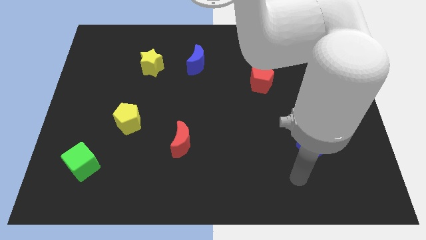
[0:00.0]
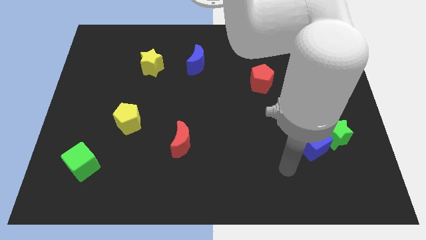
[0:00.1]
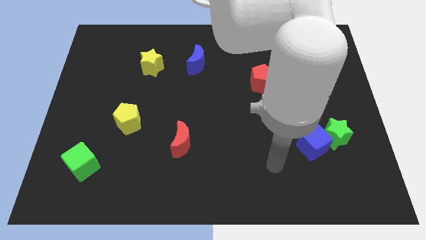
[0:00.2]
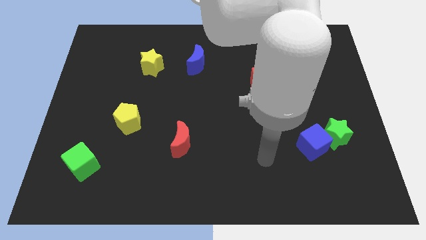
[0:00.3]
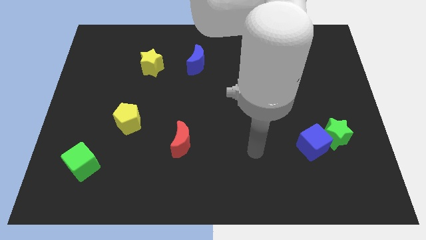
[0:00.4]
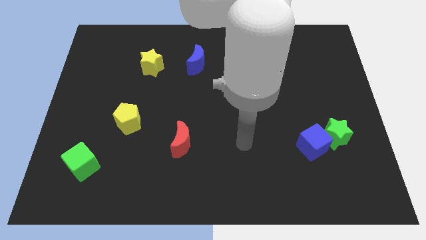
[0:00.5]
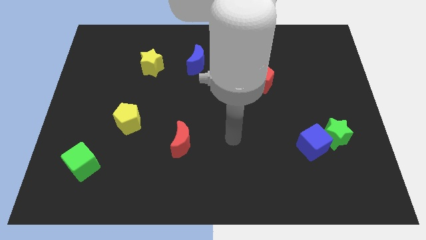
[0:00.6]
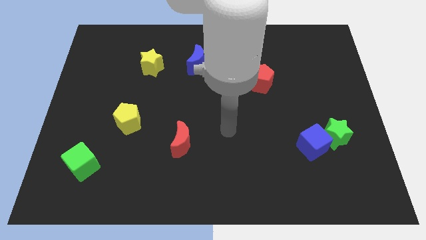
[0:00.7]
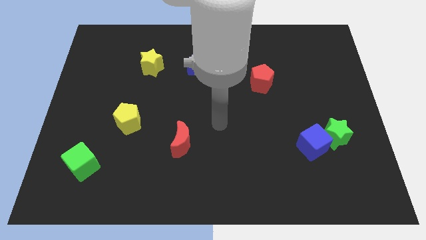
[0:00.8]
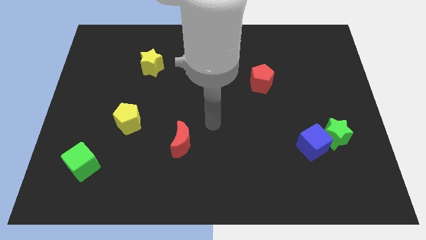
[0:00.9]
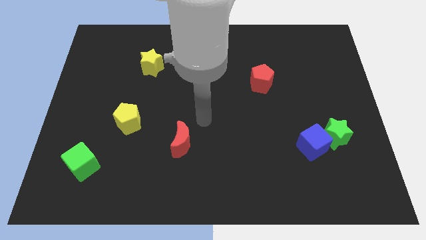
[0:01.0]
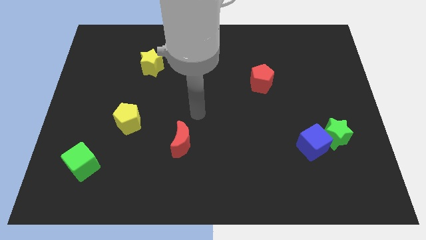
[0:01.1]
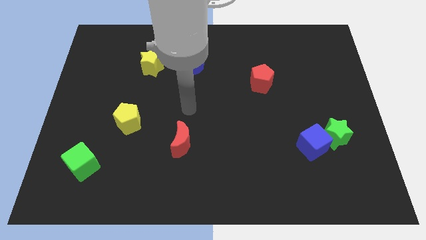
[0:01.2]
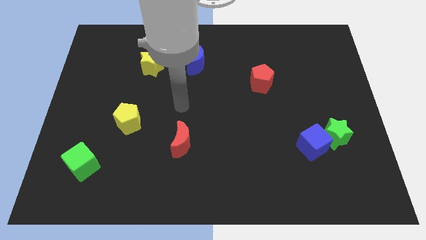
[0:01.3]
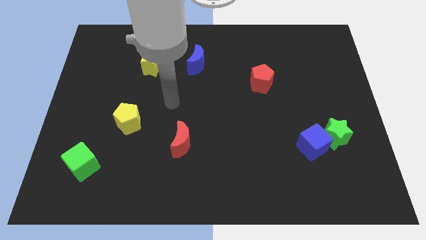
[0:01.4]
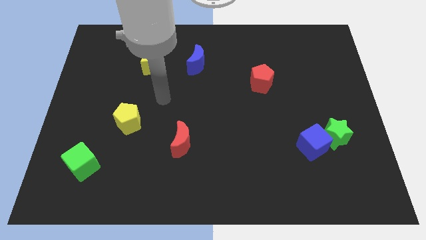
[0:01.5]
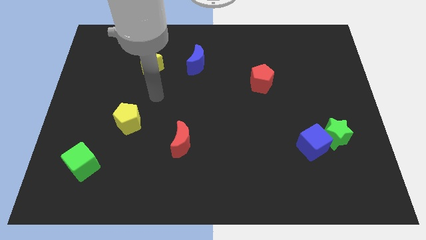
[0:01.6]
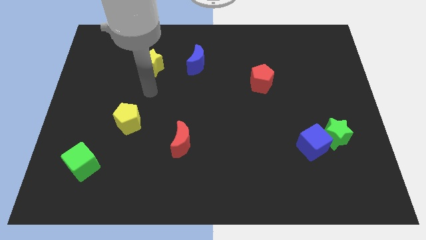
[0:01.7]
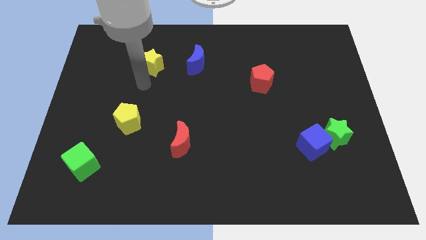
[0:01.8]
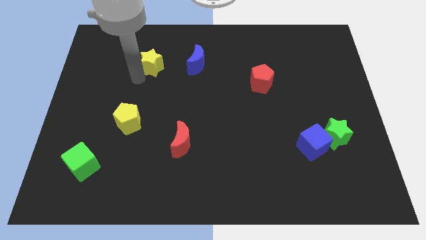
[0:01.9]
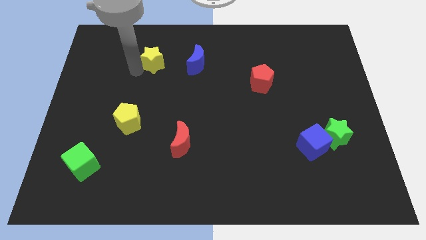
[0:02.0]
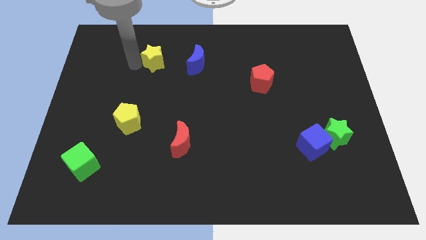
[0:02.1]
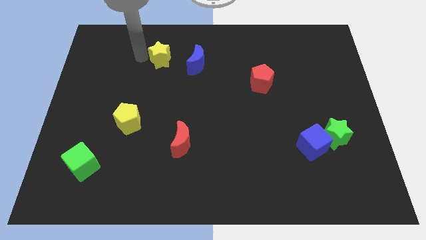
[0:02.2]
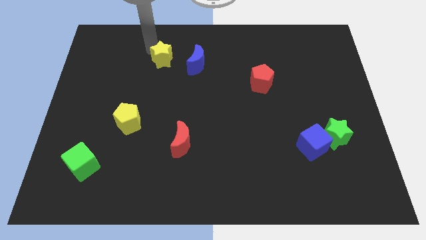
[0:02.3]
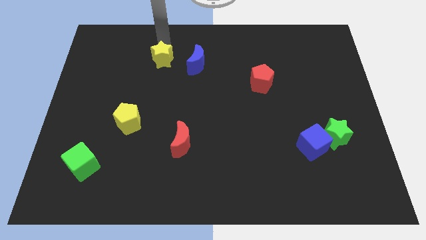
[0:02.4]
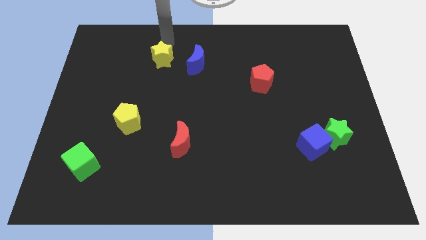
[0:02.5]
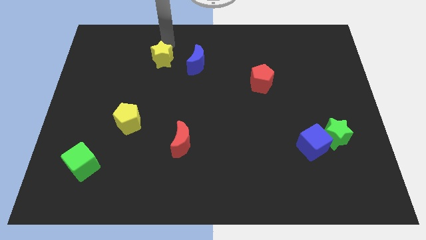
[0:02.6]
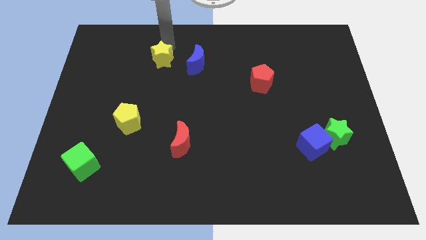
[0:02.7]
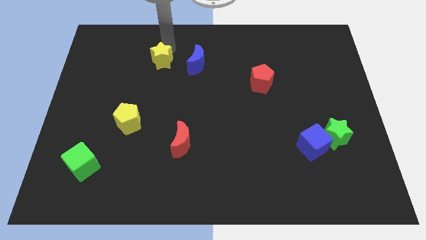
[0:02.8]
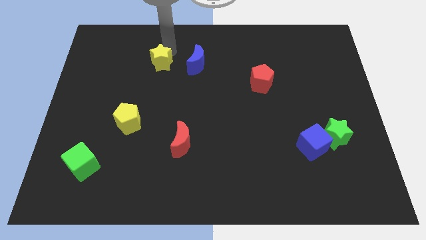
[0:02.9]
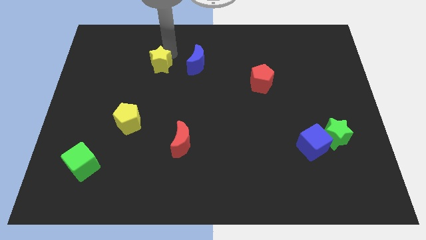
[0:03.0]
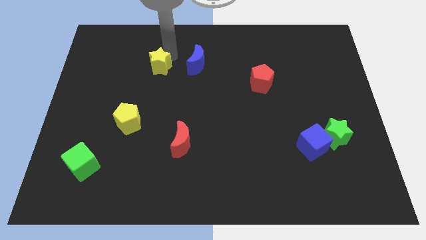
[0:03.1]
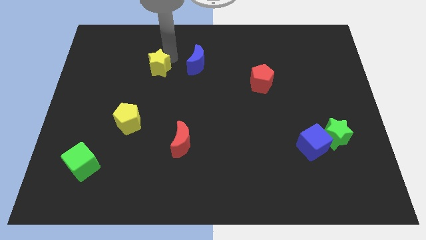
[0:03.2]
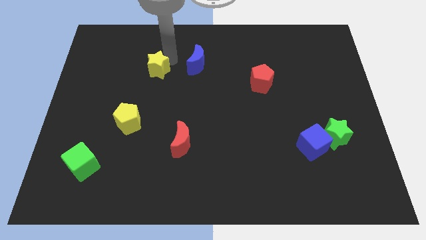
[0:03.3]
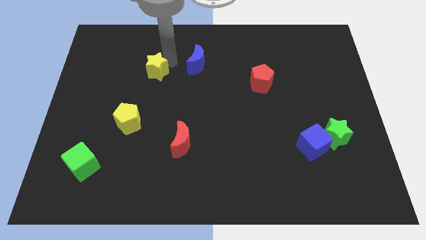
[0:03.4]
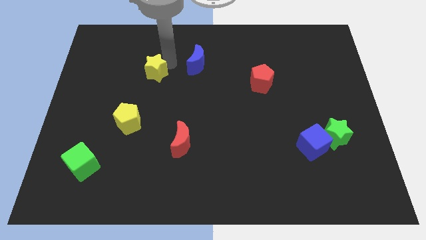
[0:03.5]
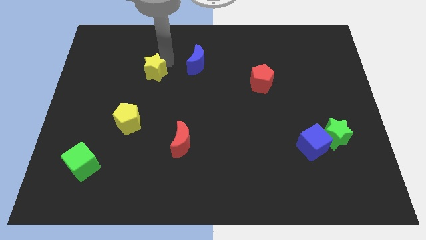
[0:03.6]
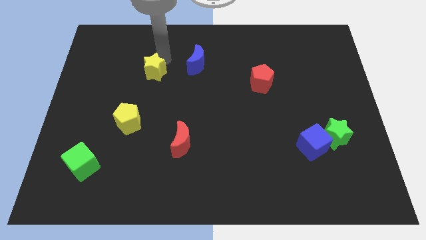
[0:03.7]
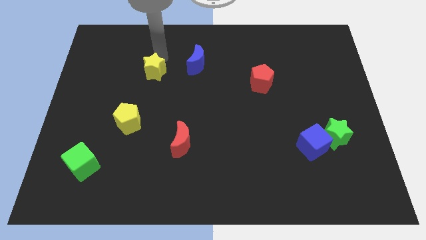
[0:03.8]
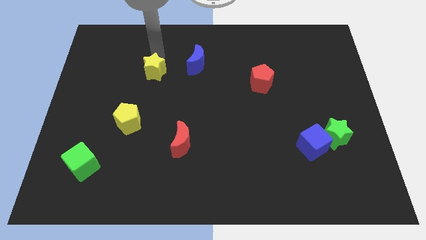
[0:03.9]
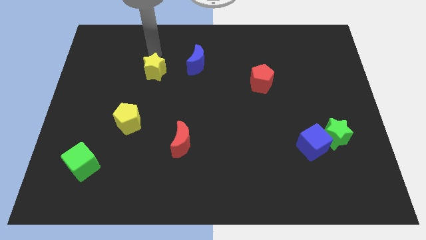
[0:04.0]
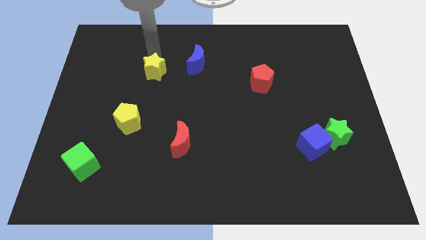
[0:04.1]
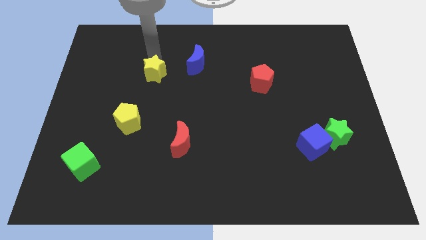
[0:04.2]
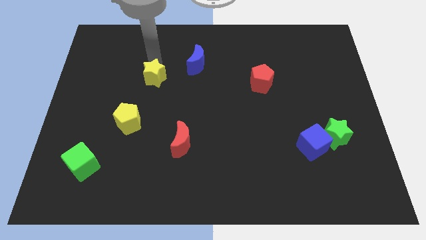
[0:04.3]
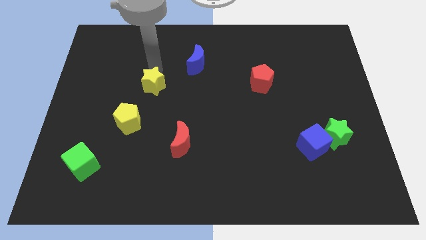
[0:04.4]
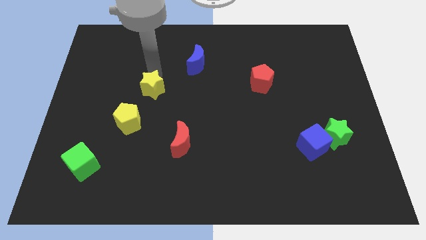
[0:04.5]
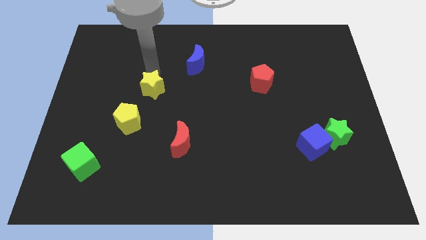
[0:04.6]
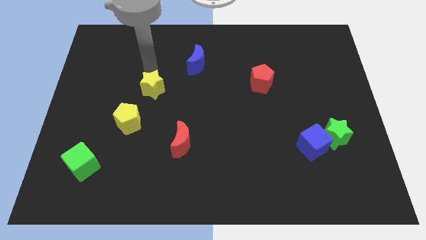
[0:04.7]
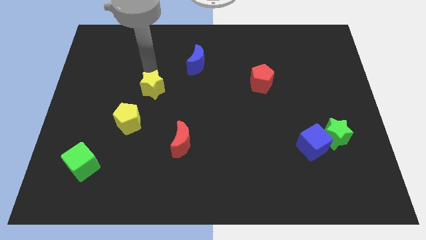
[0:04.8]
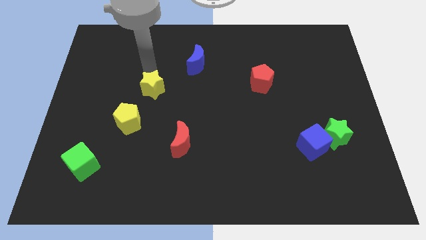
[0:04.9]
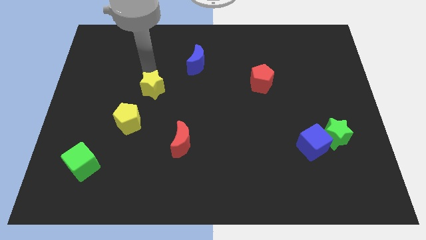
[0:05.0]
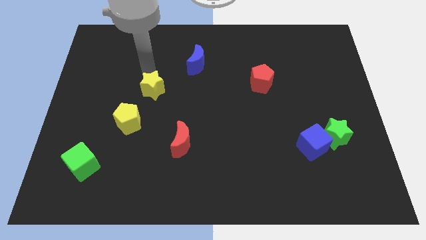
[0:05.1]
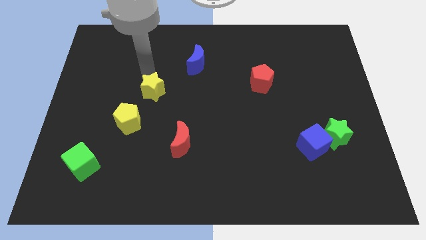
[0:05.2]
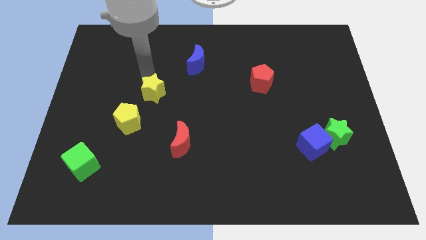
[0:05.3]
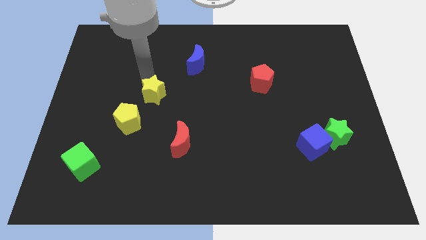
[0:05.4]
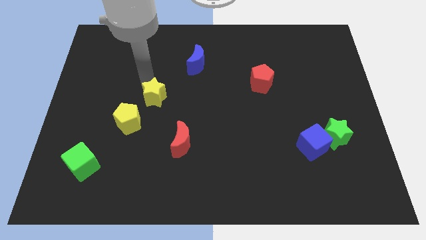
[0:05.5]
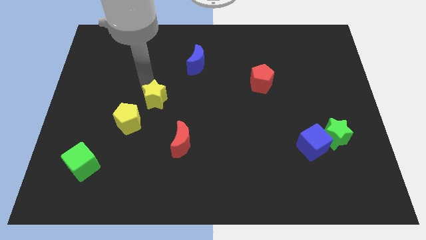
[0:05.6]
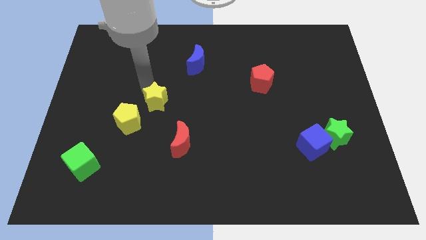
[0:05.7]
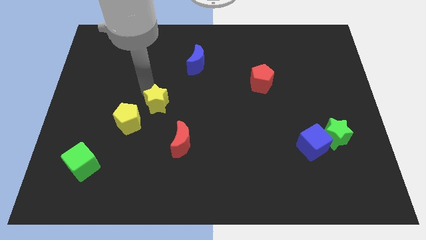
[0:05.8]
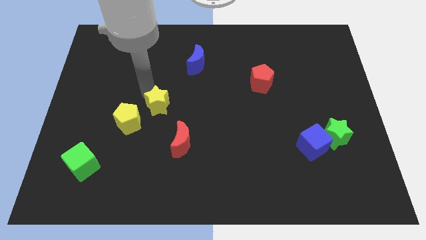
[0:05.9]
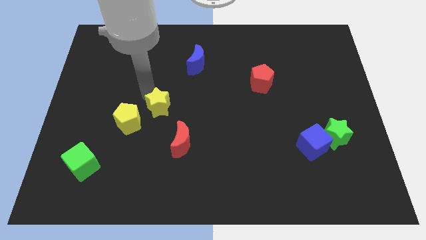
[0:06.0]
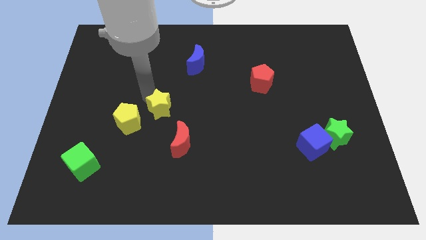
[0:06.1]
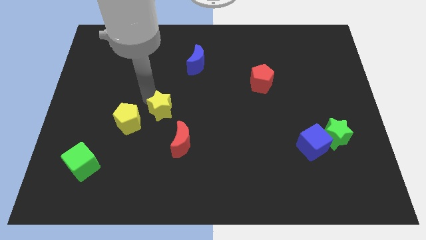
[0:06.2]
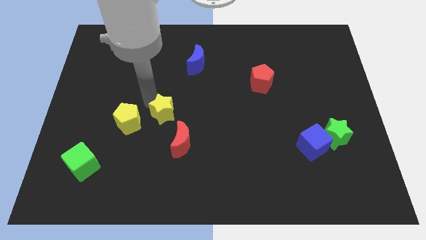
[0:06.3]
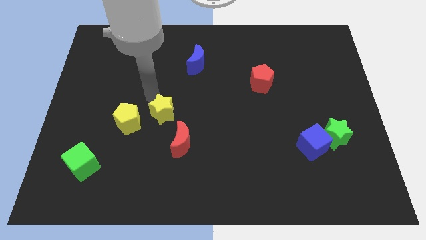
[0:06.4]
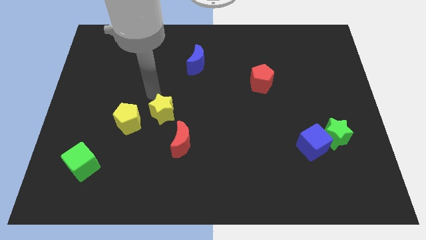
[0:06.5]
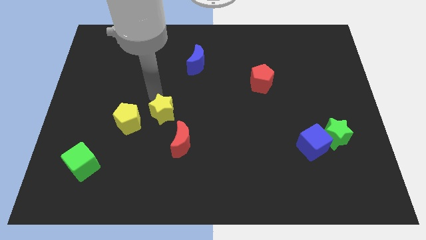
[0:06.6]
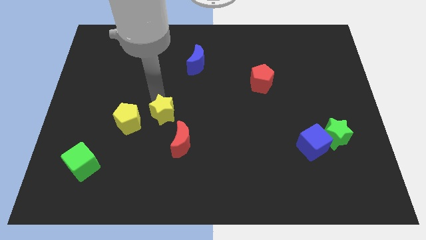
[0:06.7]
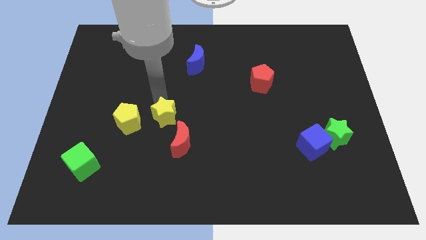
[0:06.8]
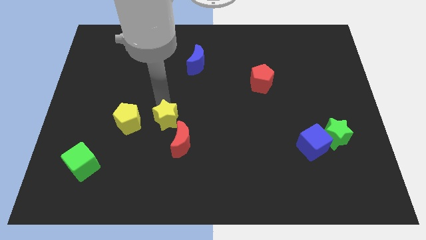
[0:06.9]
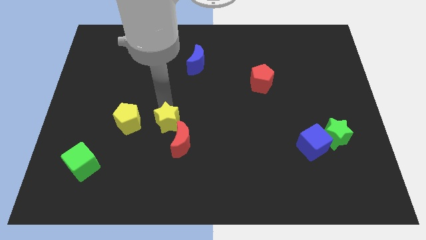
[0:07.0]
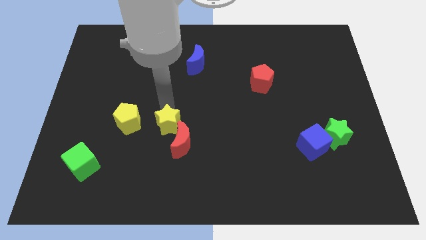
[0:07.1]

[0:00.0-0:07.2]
slide the yellow star towards the red moon
